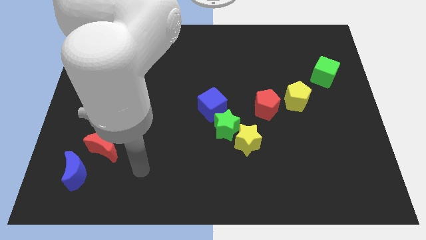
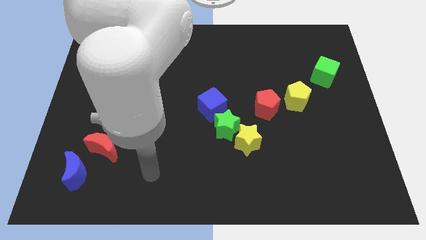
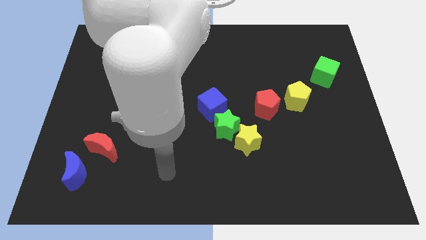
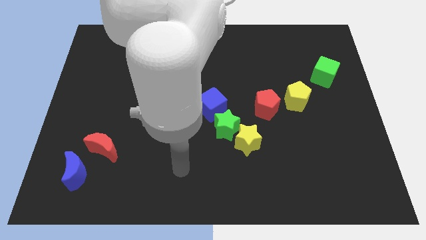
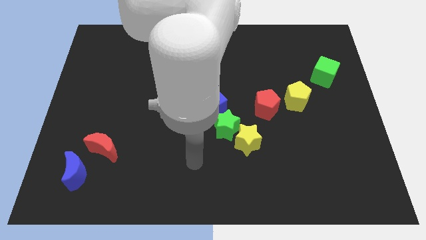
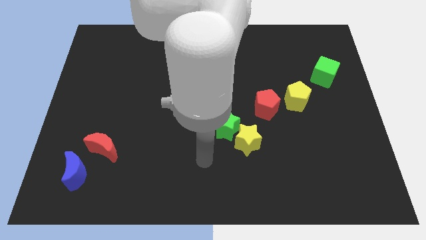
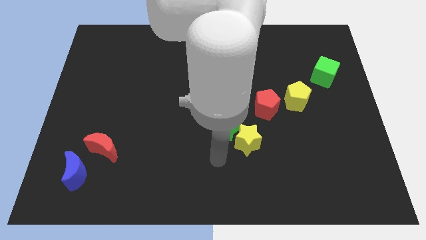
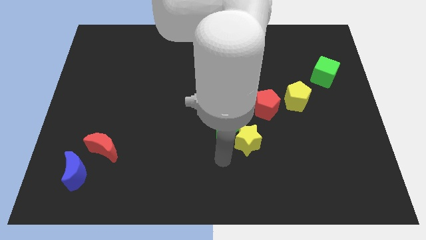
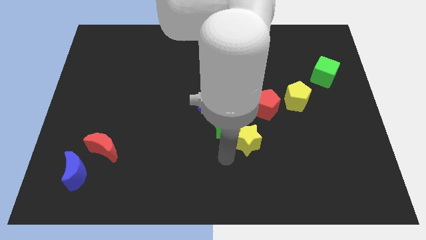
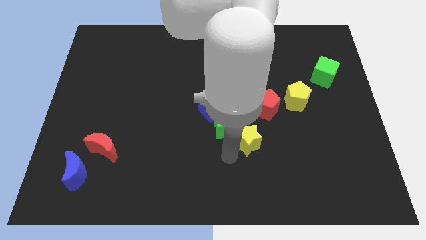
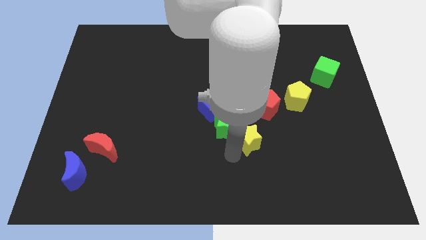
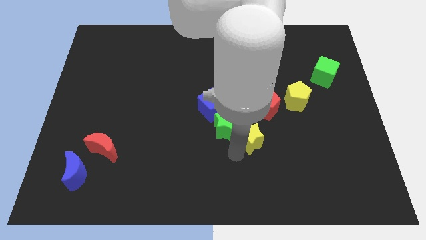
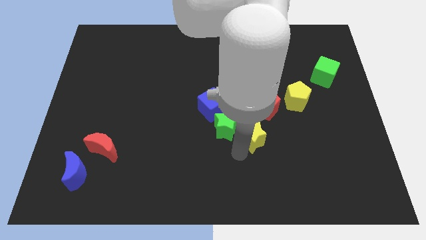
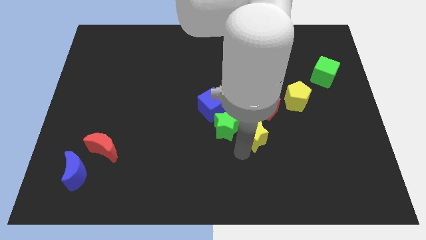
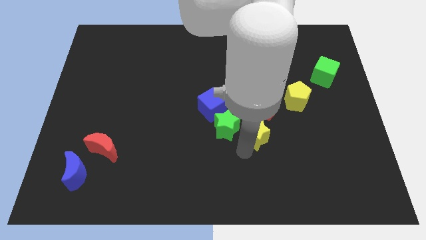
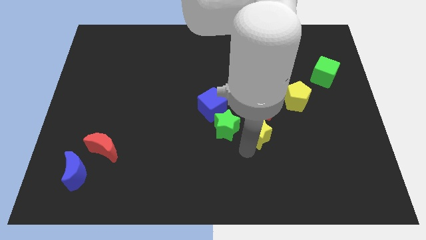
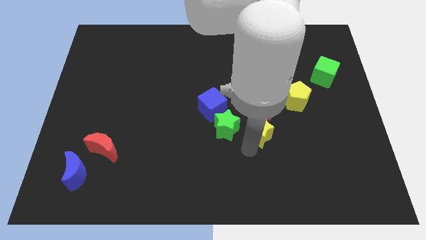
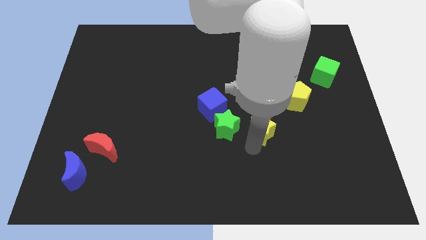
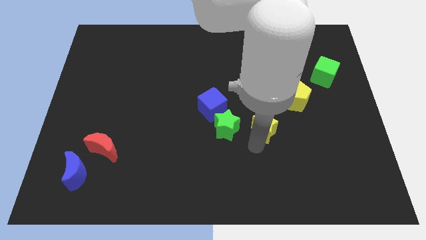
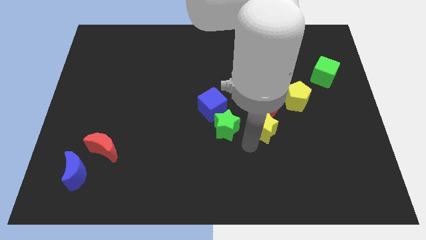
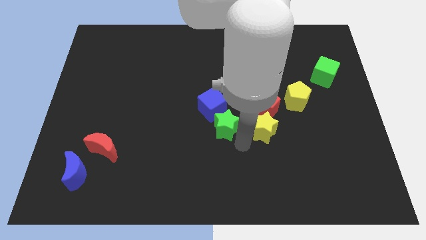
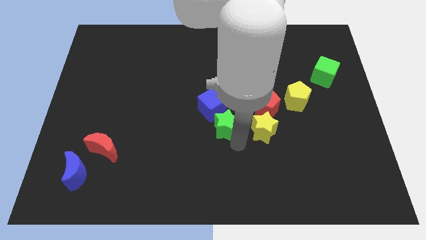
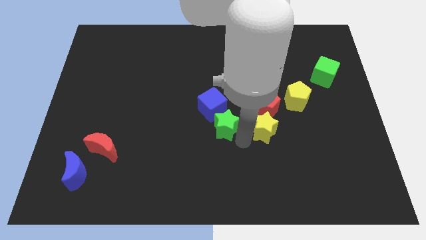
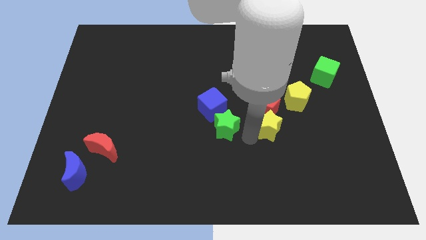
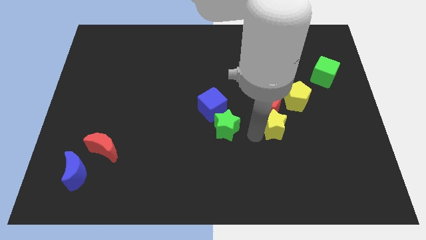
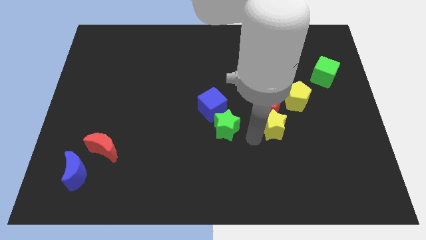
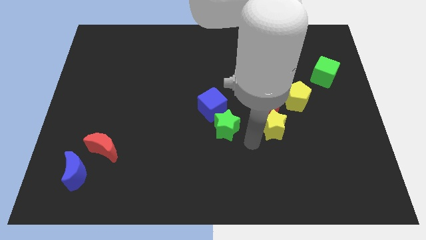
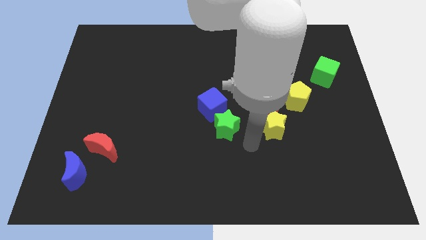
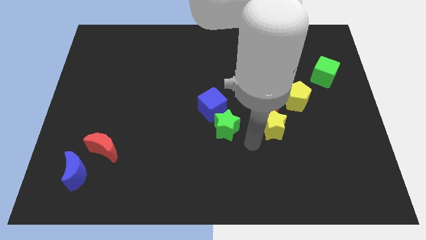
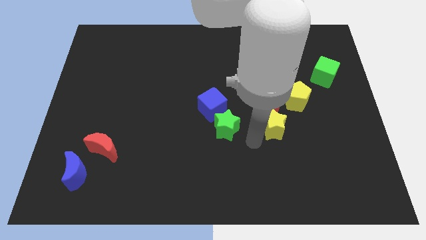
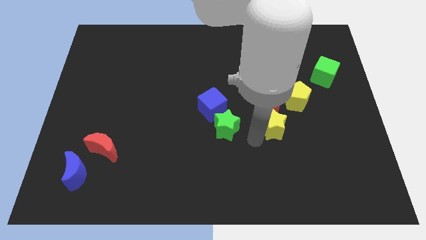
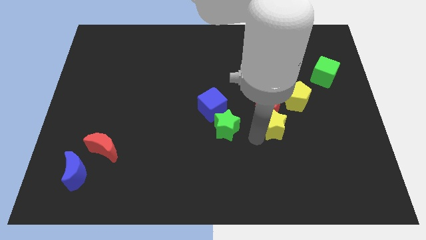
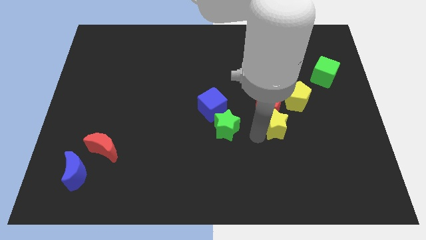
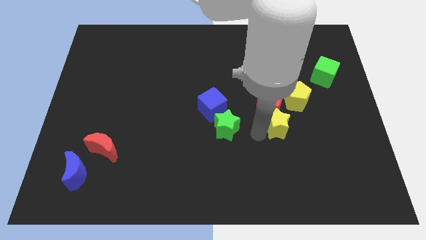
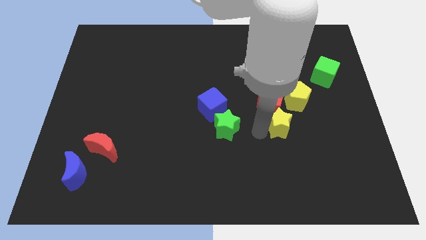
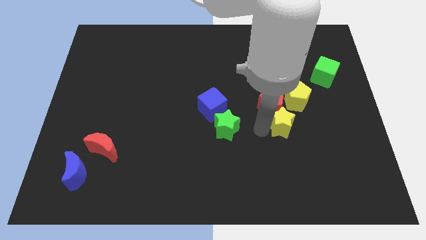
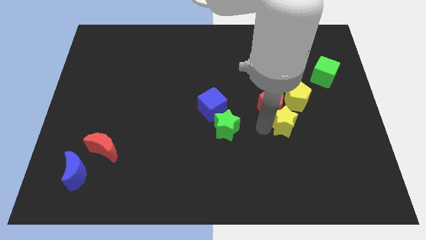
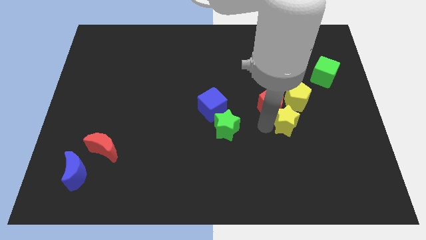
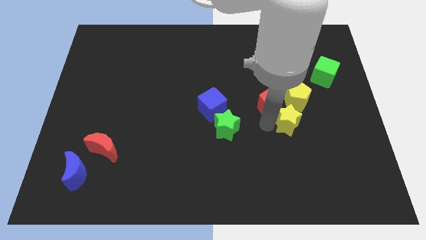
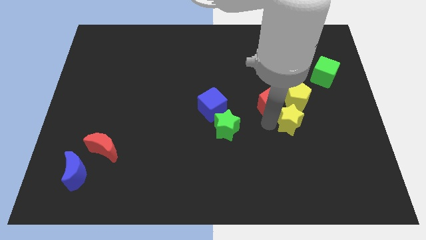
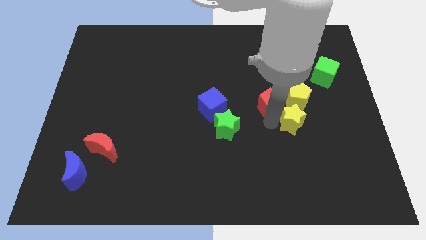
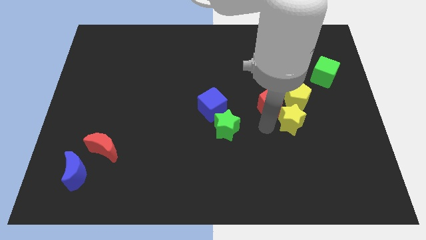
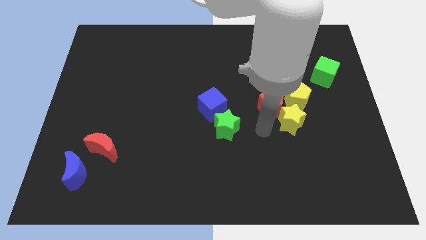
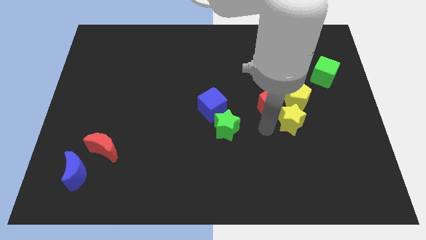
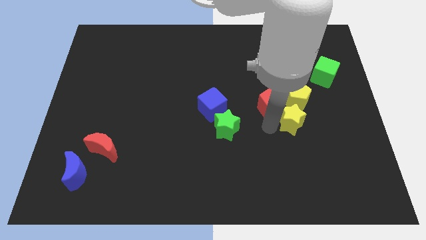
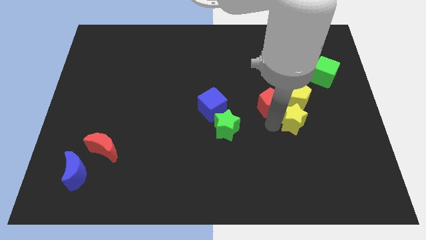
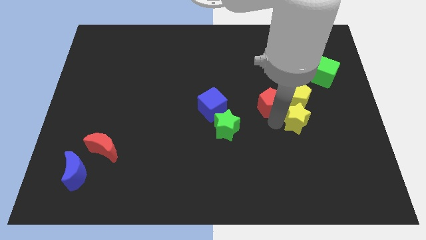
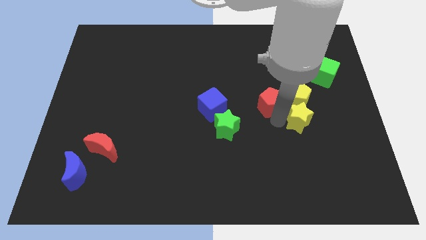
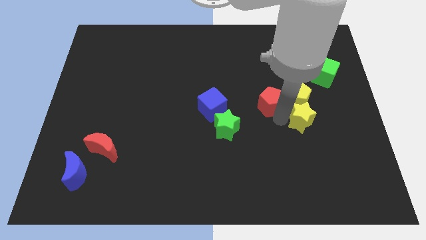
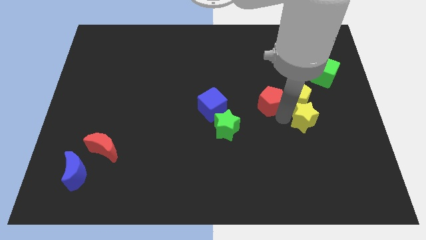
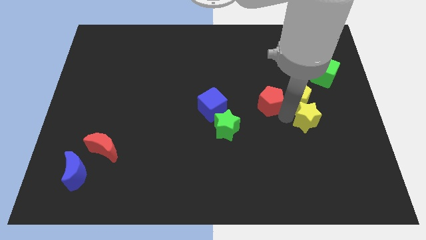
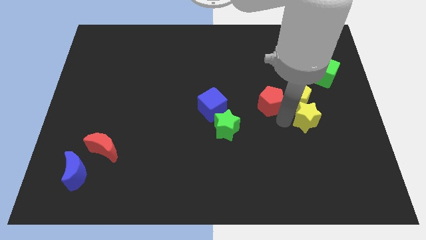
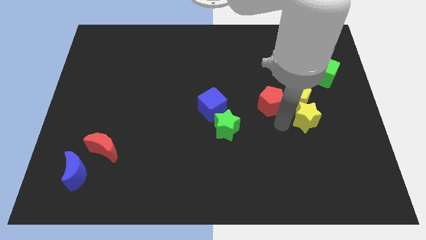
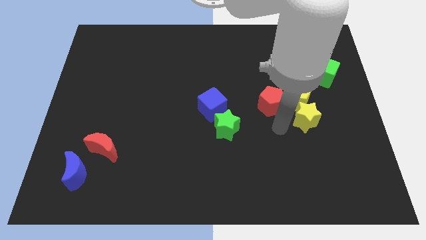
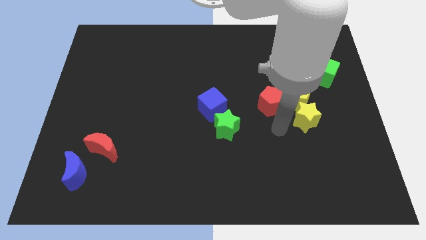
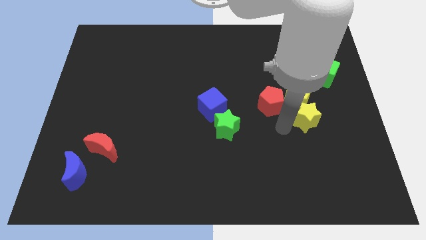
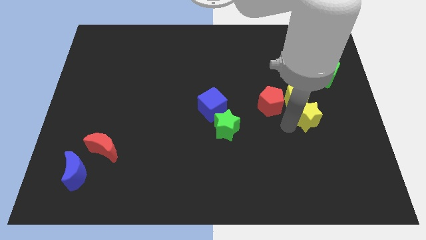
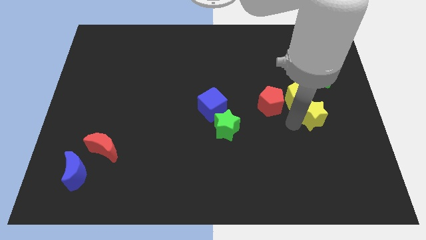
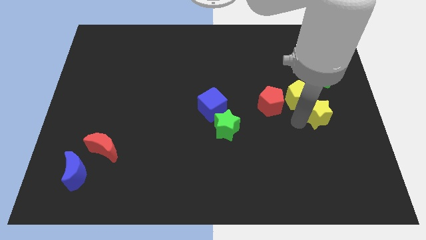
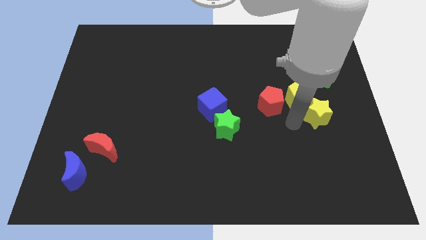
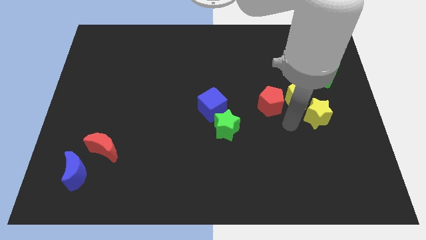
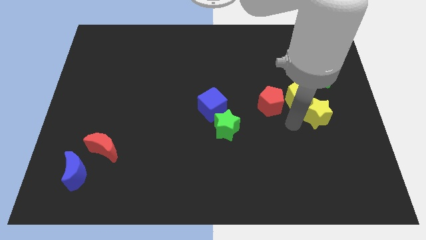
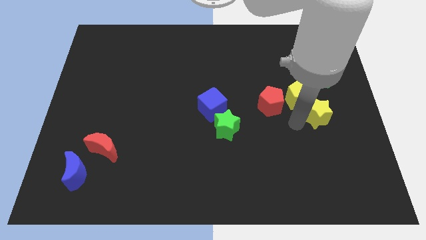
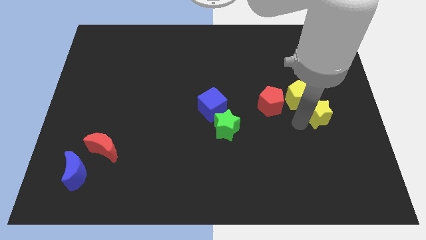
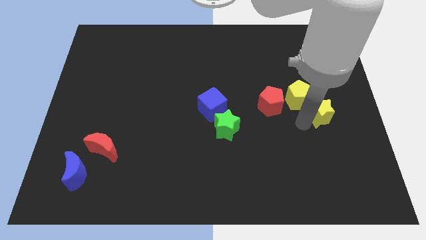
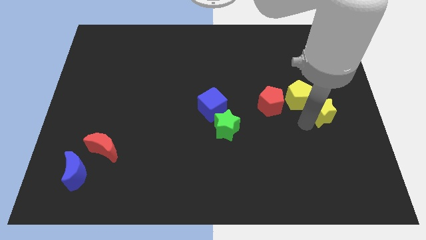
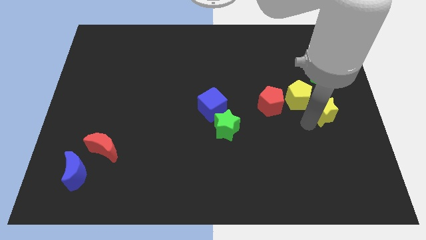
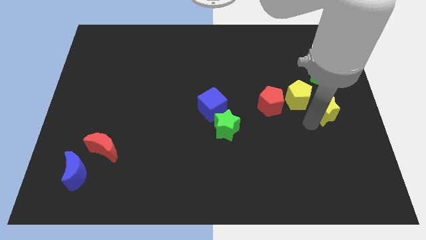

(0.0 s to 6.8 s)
slide the yellow star to the right side of the board
